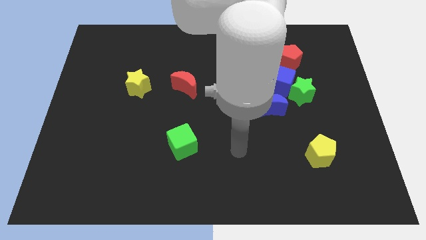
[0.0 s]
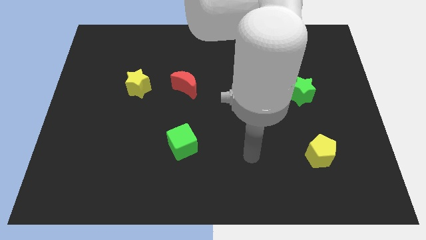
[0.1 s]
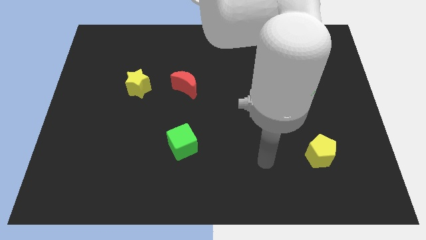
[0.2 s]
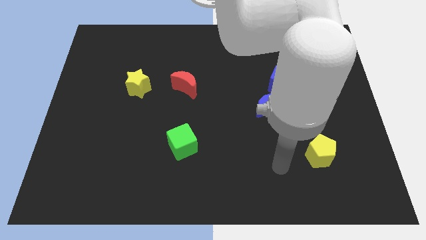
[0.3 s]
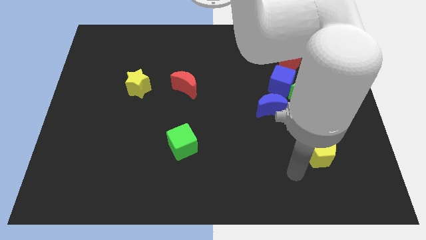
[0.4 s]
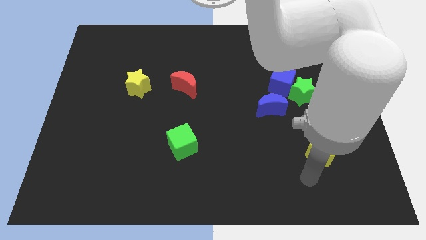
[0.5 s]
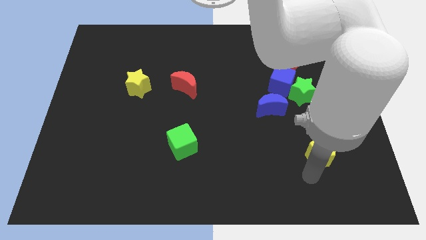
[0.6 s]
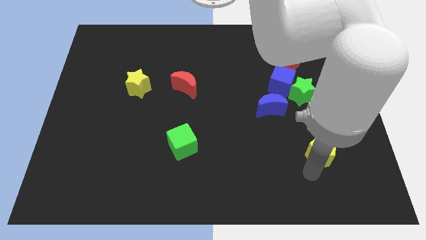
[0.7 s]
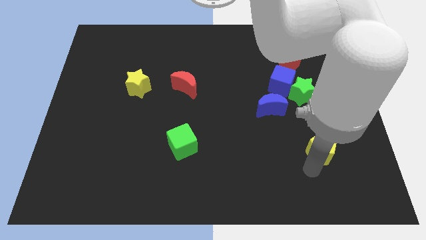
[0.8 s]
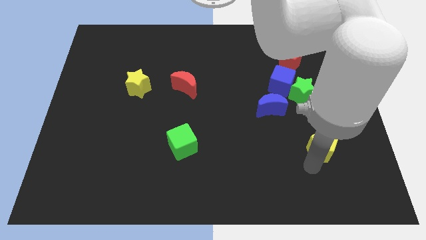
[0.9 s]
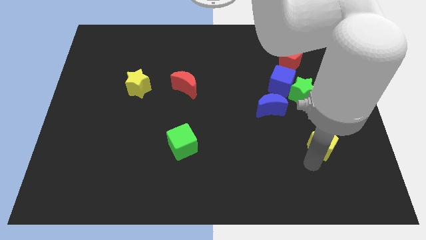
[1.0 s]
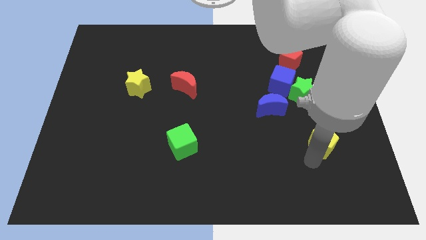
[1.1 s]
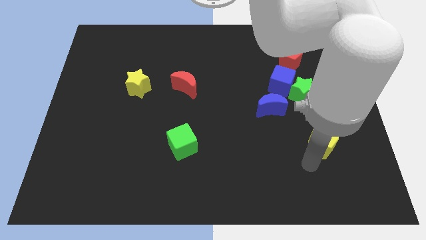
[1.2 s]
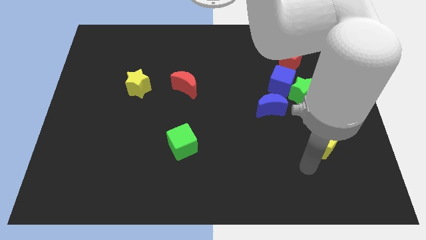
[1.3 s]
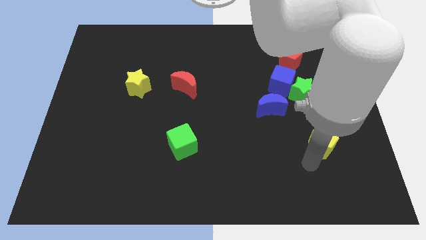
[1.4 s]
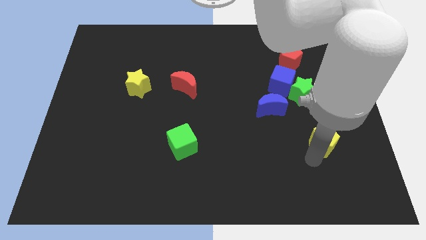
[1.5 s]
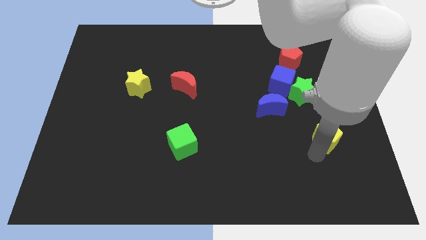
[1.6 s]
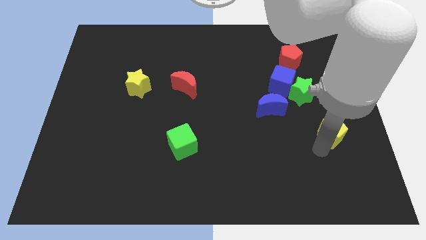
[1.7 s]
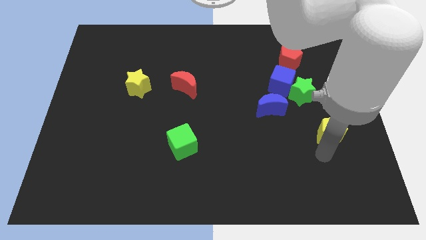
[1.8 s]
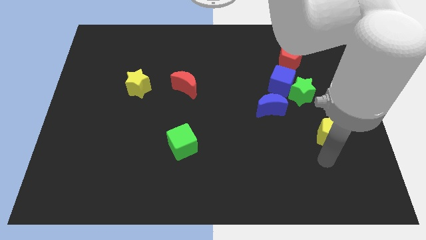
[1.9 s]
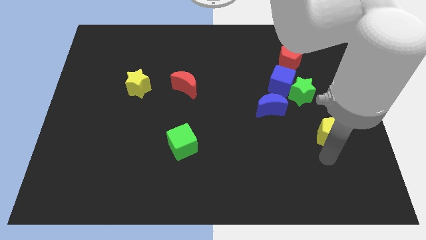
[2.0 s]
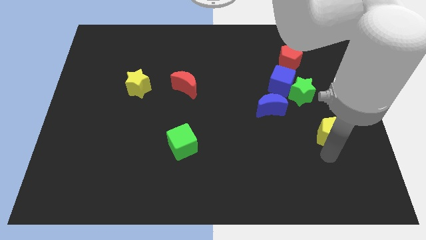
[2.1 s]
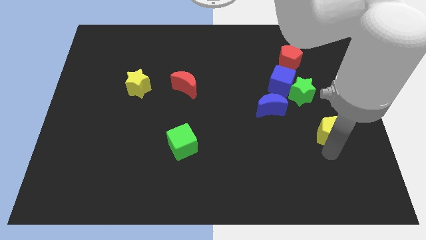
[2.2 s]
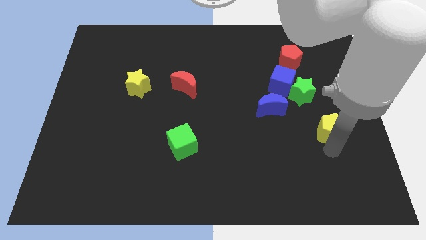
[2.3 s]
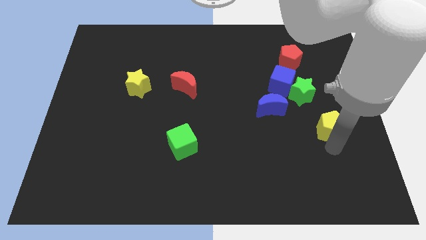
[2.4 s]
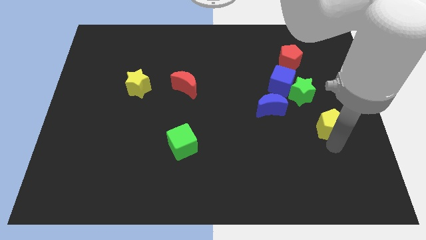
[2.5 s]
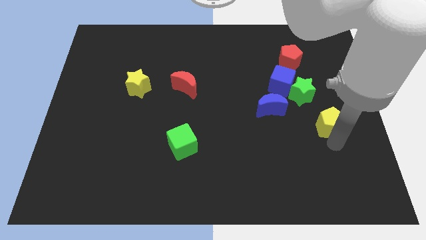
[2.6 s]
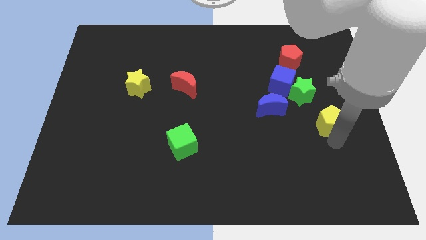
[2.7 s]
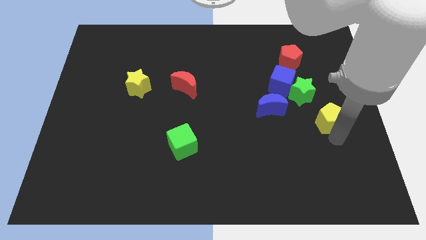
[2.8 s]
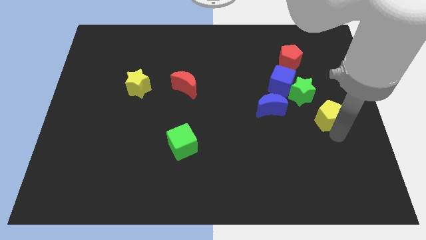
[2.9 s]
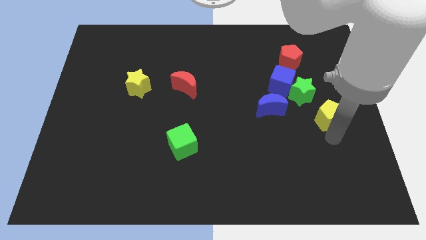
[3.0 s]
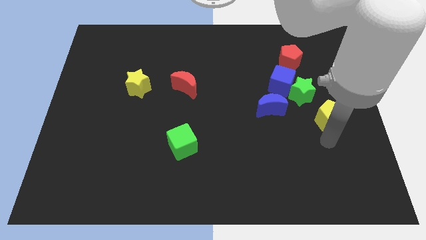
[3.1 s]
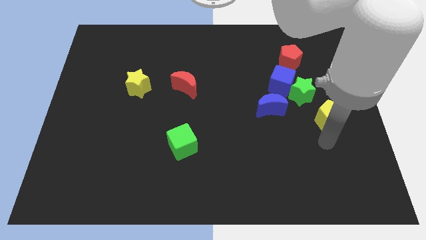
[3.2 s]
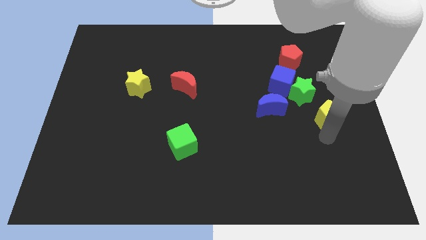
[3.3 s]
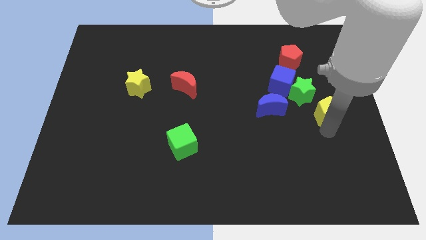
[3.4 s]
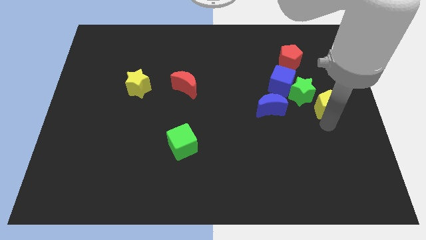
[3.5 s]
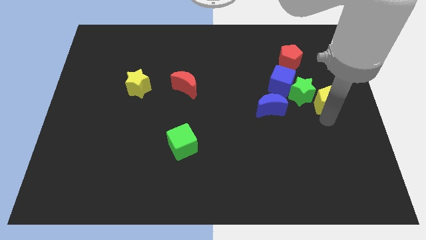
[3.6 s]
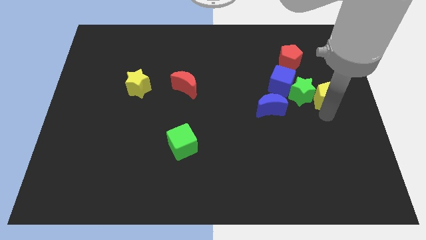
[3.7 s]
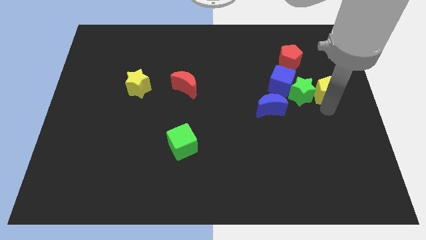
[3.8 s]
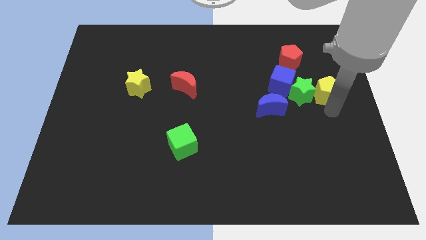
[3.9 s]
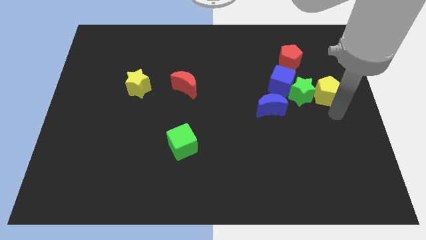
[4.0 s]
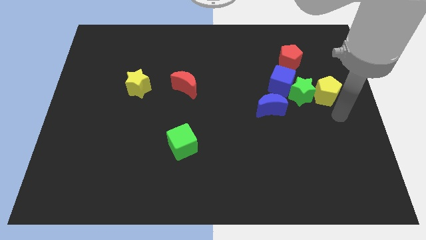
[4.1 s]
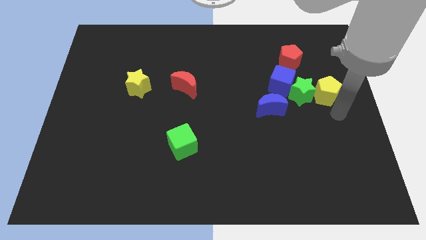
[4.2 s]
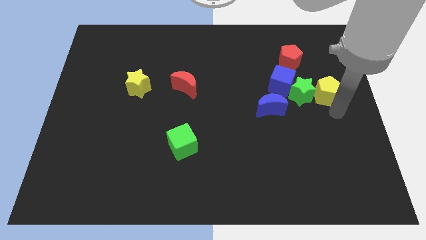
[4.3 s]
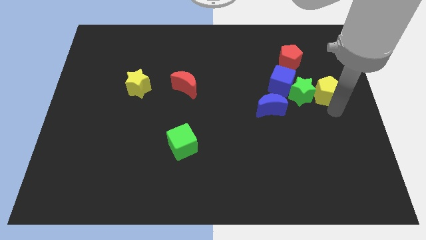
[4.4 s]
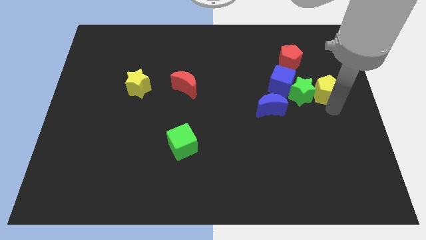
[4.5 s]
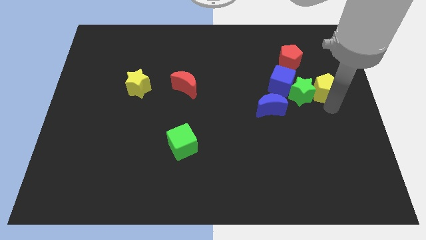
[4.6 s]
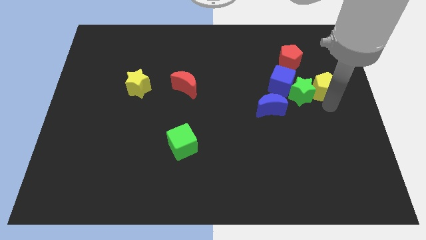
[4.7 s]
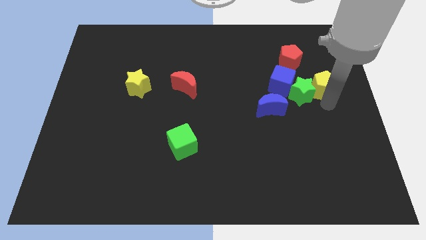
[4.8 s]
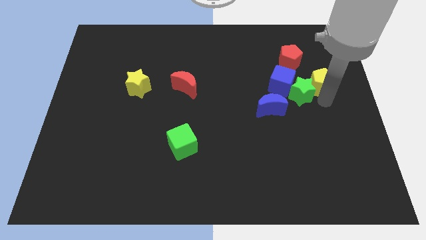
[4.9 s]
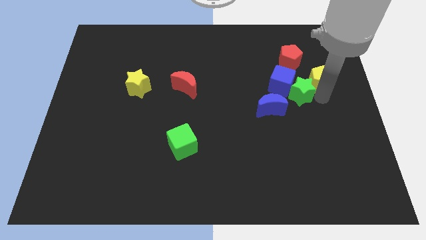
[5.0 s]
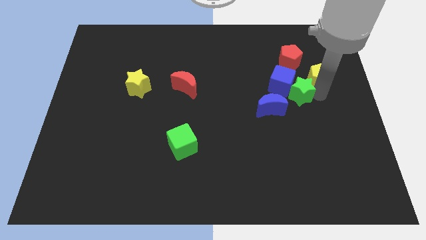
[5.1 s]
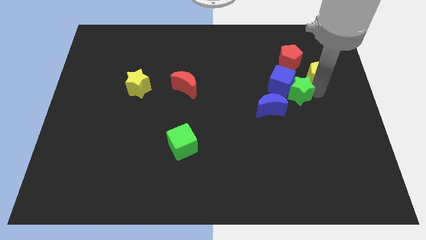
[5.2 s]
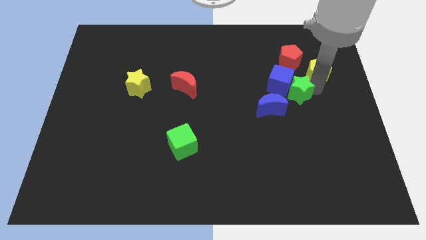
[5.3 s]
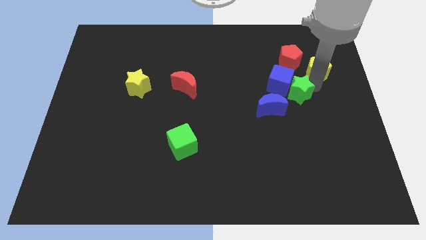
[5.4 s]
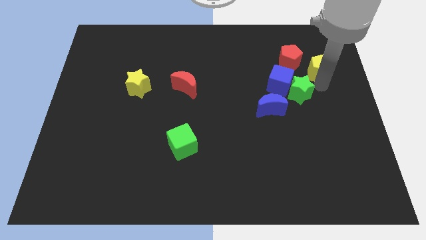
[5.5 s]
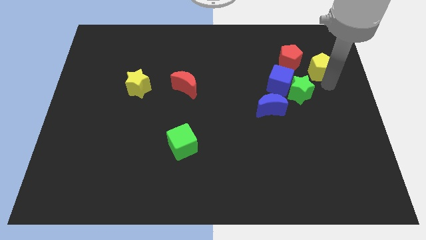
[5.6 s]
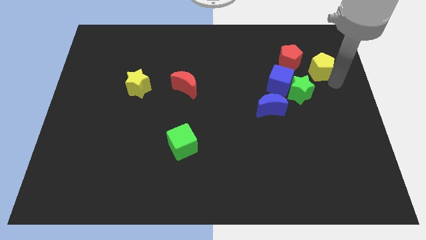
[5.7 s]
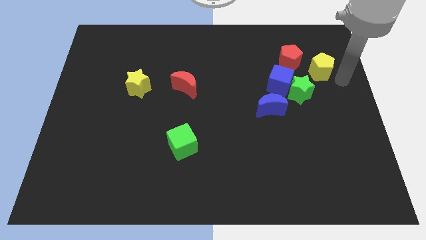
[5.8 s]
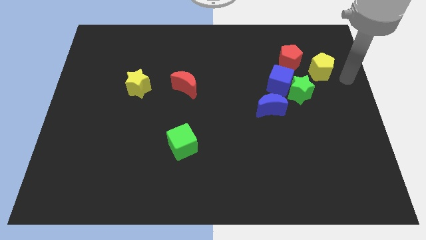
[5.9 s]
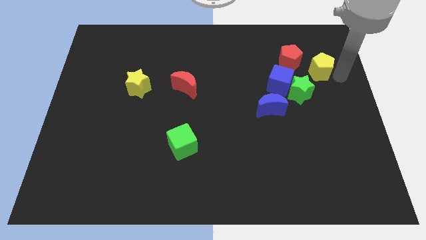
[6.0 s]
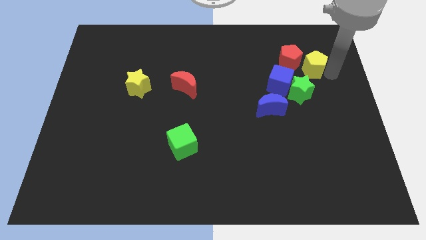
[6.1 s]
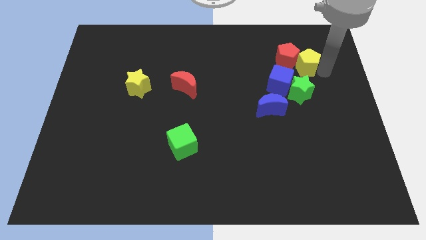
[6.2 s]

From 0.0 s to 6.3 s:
slide the yellow pentagon next to the red pentagon

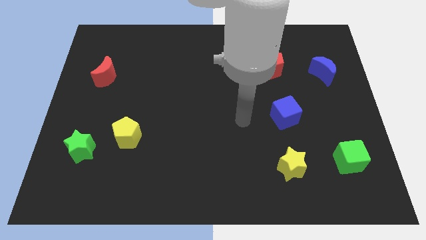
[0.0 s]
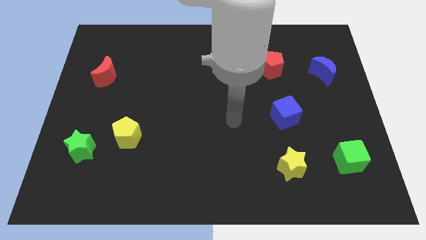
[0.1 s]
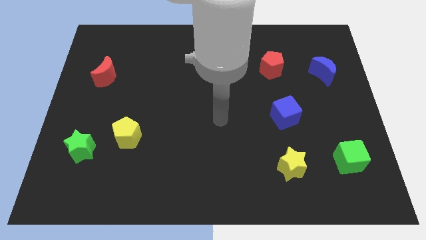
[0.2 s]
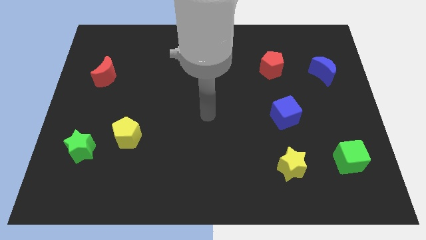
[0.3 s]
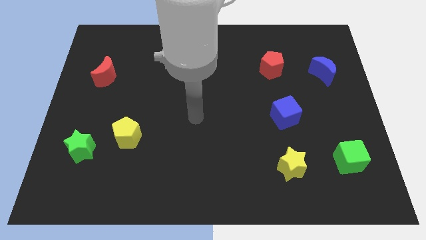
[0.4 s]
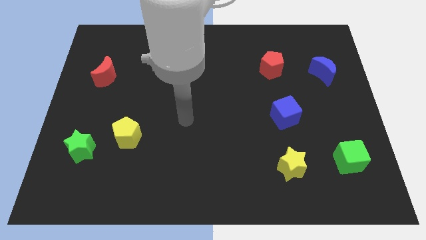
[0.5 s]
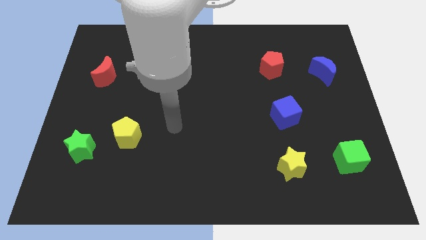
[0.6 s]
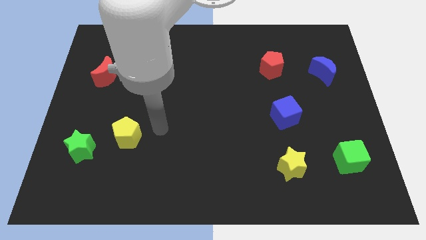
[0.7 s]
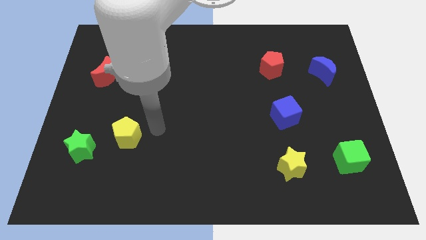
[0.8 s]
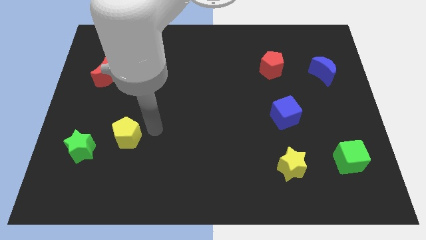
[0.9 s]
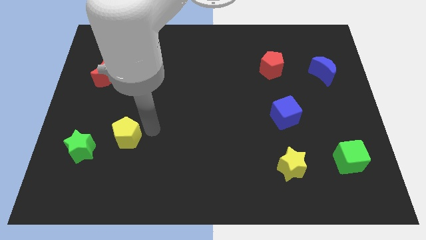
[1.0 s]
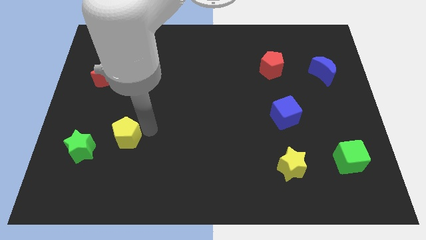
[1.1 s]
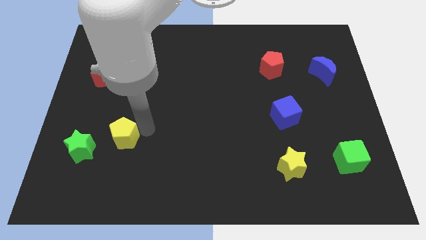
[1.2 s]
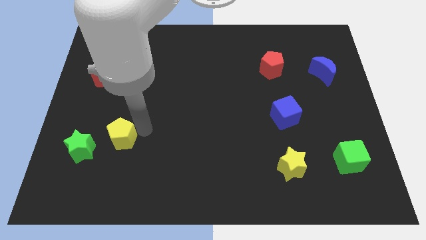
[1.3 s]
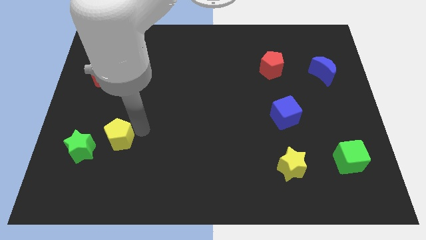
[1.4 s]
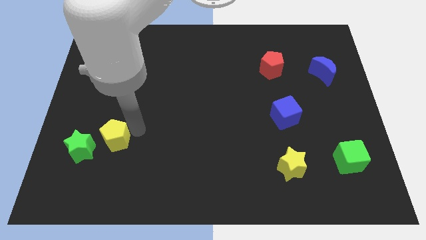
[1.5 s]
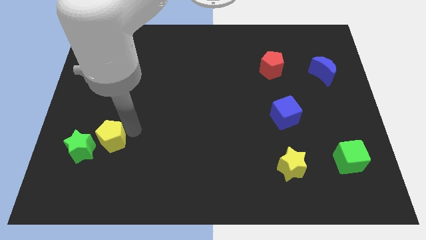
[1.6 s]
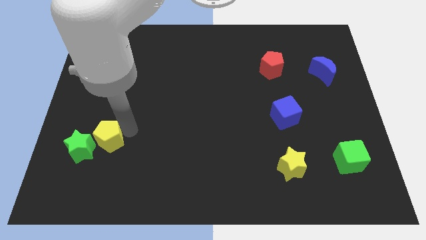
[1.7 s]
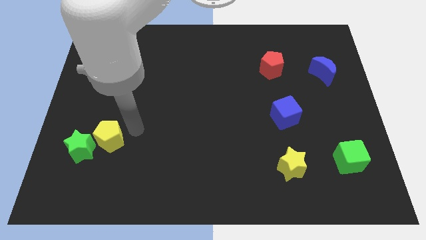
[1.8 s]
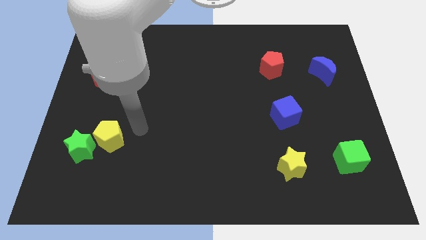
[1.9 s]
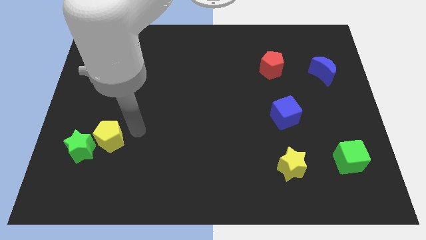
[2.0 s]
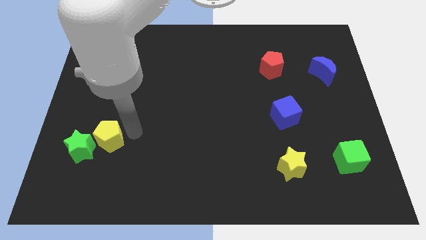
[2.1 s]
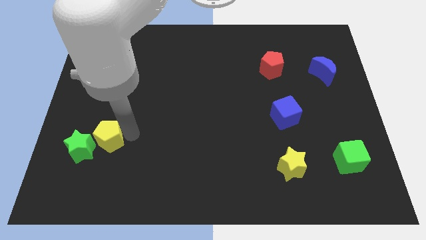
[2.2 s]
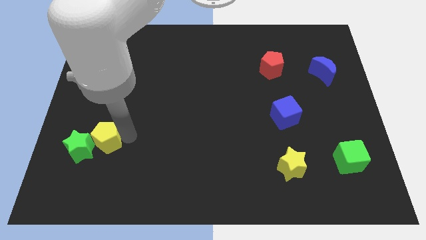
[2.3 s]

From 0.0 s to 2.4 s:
move the yellow pentagon close to the green star
